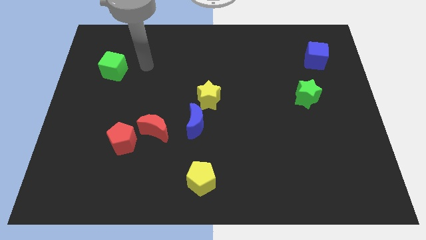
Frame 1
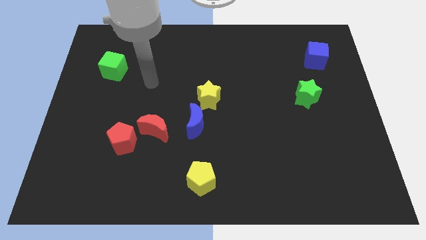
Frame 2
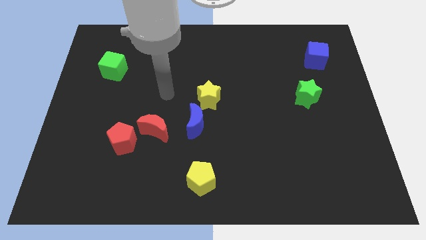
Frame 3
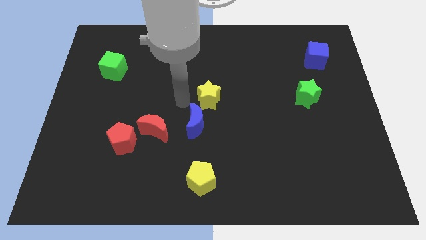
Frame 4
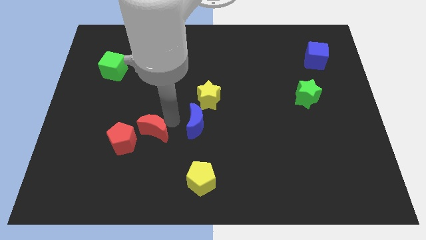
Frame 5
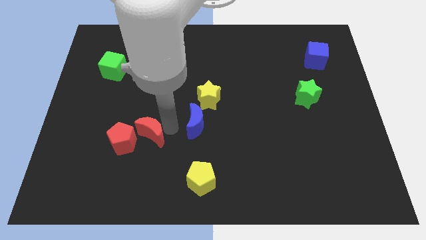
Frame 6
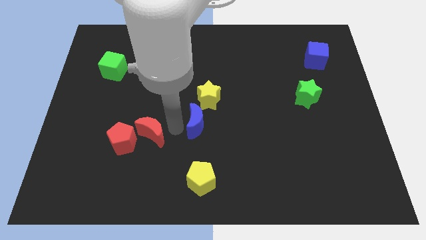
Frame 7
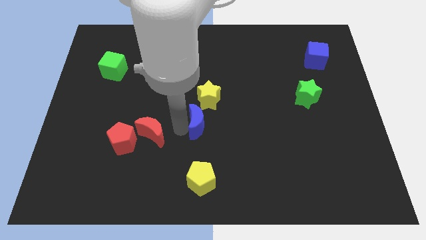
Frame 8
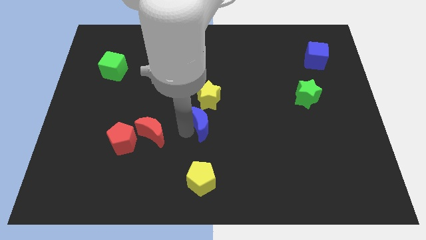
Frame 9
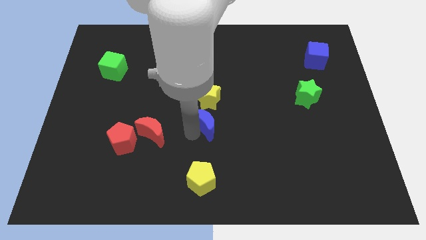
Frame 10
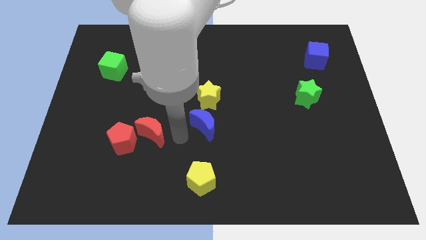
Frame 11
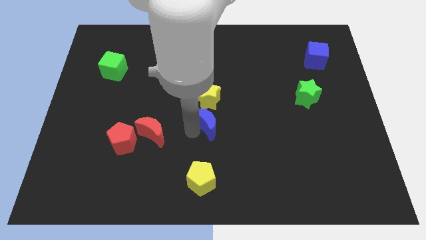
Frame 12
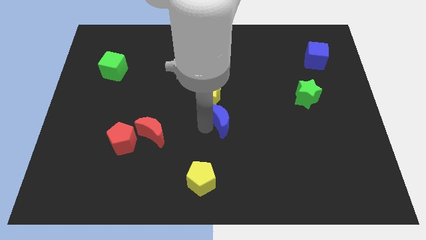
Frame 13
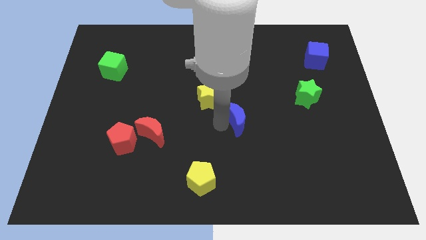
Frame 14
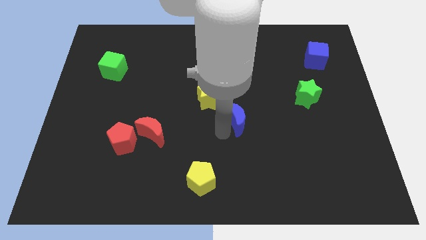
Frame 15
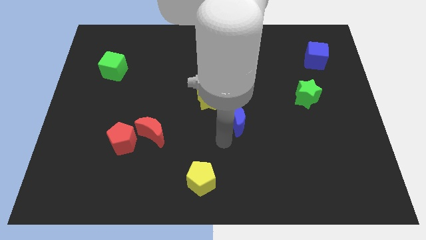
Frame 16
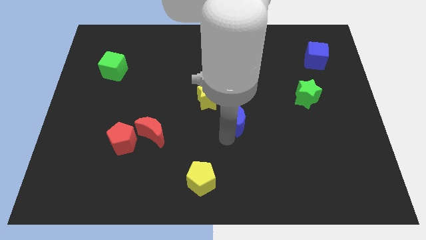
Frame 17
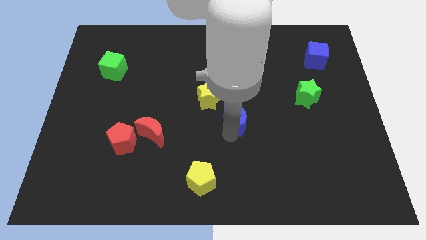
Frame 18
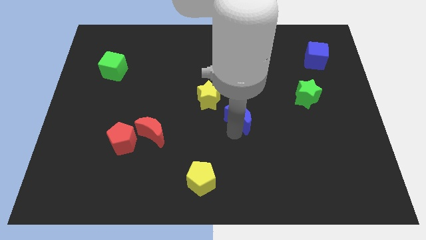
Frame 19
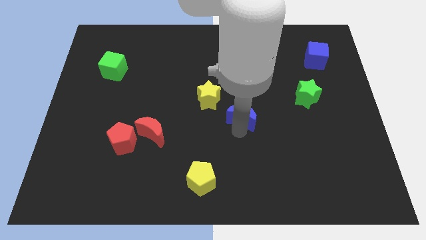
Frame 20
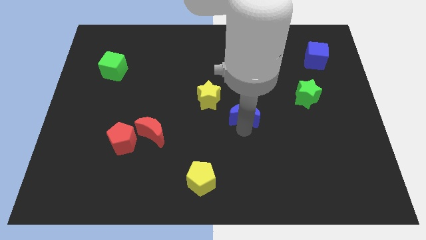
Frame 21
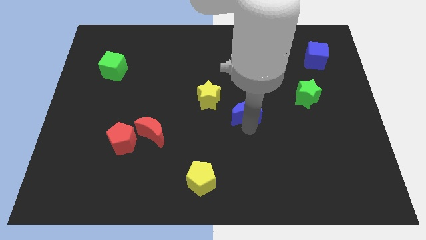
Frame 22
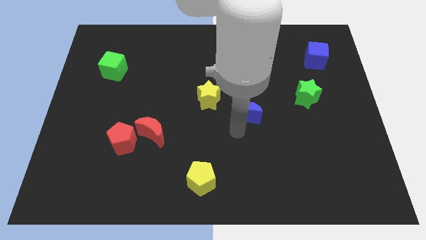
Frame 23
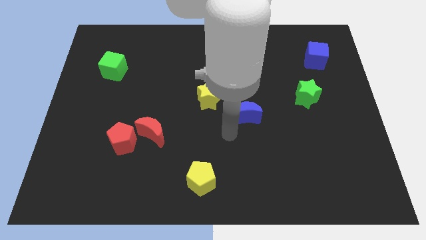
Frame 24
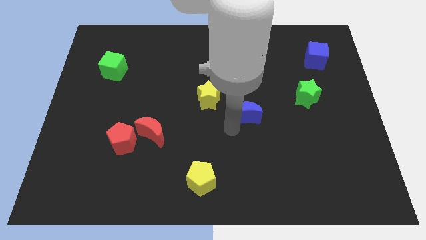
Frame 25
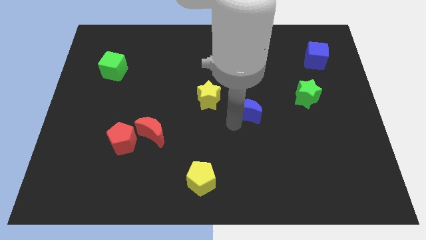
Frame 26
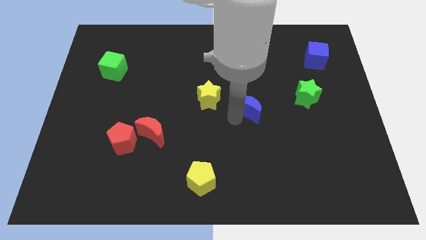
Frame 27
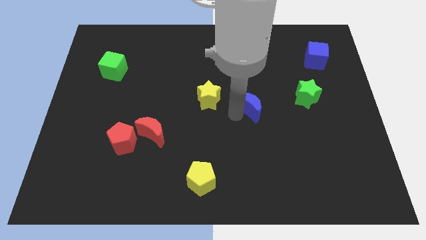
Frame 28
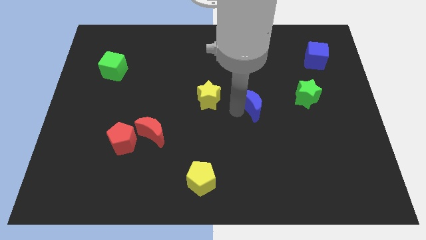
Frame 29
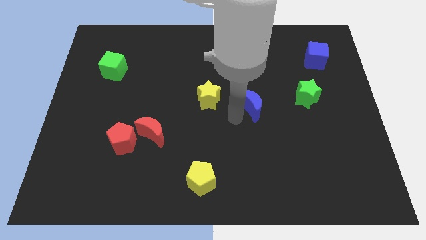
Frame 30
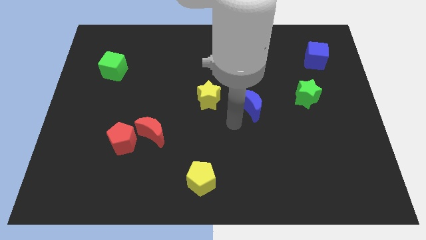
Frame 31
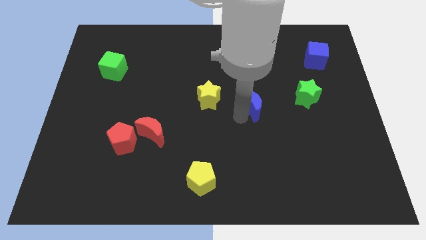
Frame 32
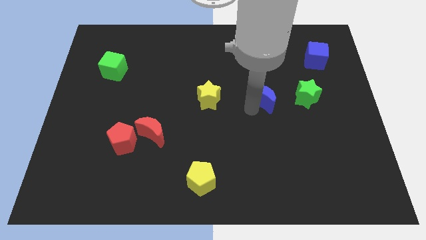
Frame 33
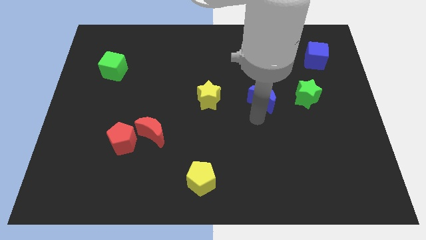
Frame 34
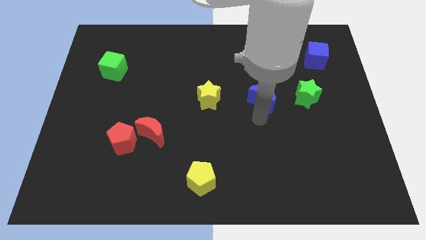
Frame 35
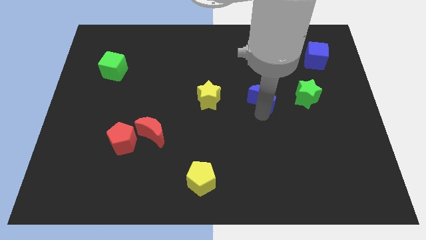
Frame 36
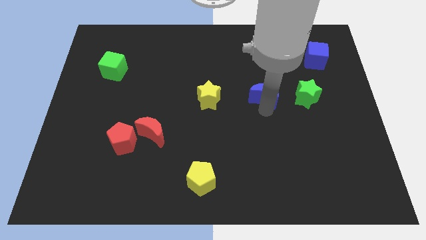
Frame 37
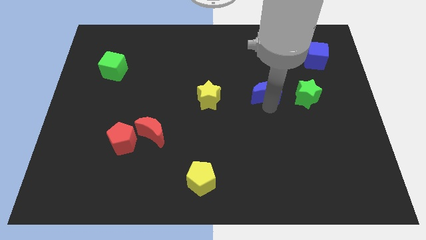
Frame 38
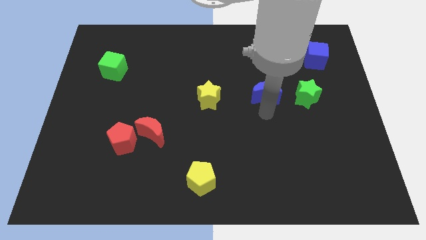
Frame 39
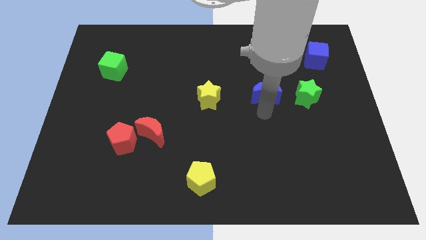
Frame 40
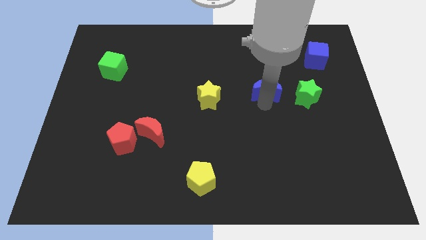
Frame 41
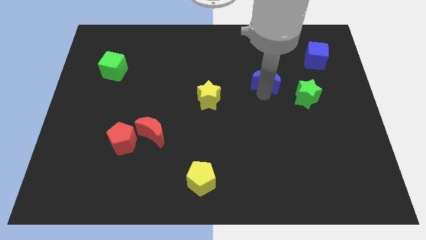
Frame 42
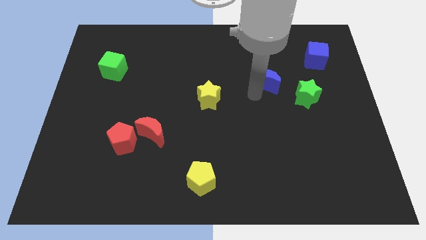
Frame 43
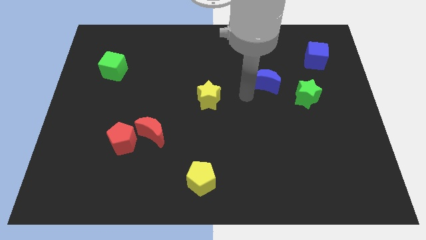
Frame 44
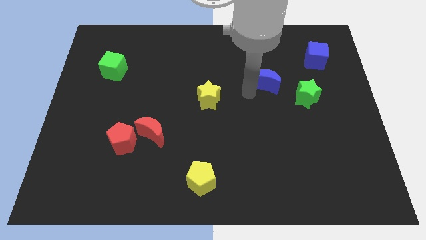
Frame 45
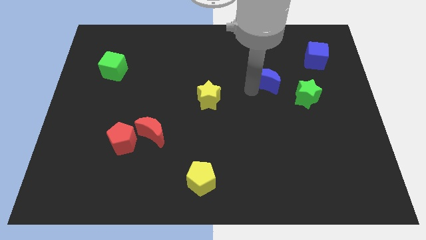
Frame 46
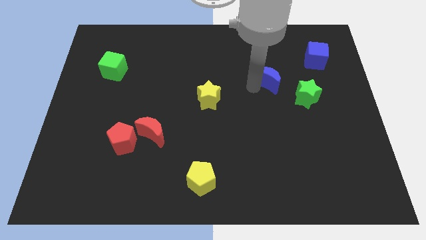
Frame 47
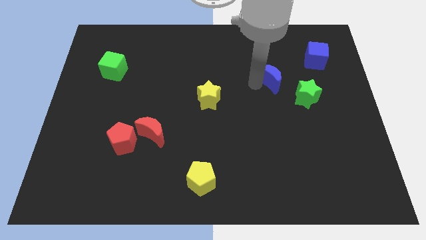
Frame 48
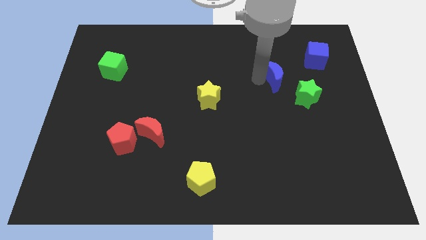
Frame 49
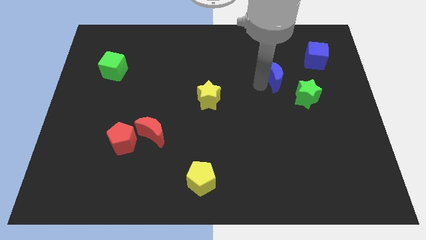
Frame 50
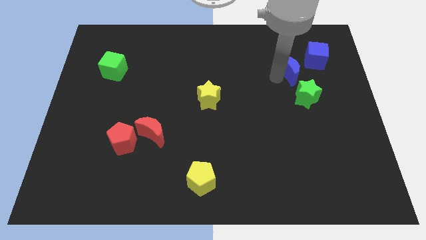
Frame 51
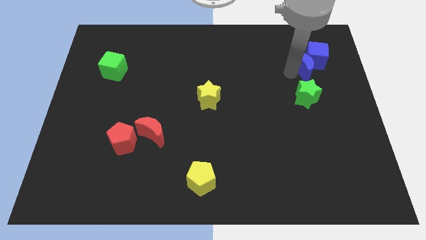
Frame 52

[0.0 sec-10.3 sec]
slide the blue moon close to the blue cube

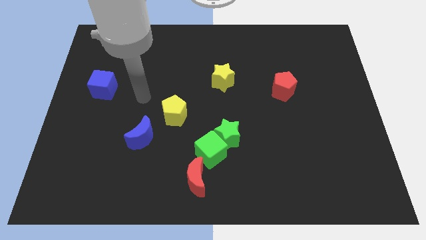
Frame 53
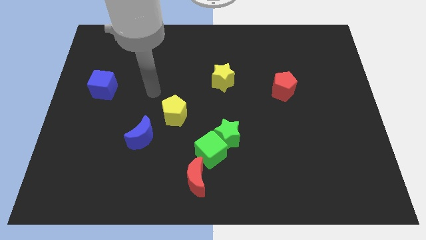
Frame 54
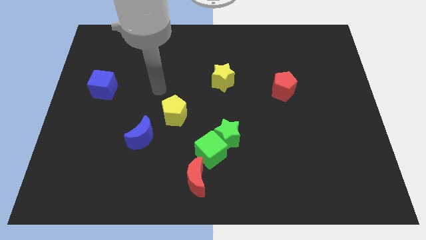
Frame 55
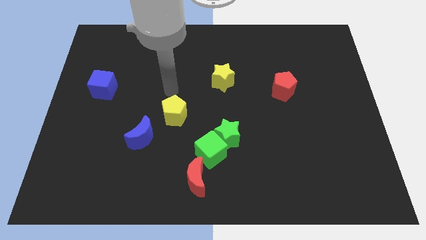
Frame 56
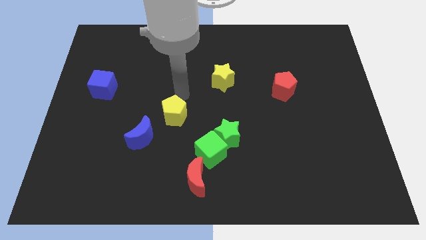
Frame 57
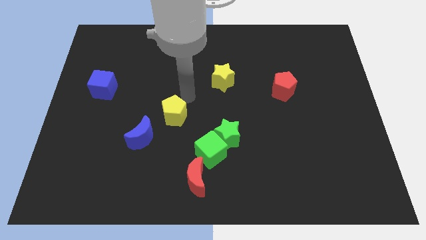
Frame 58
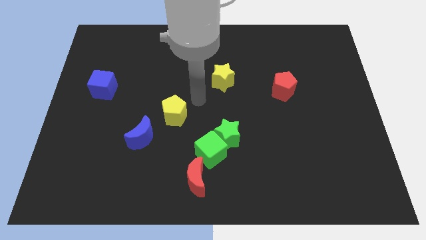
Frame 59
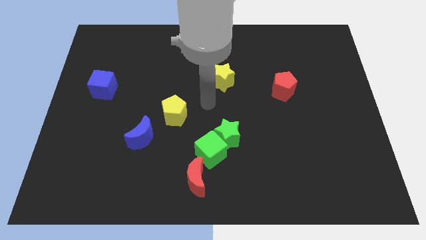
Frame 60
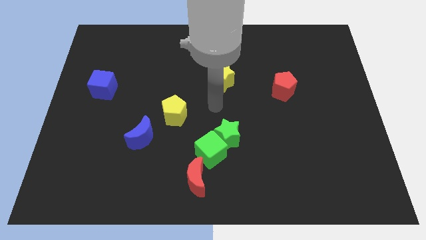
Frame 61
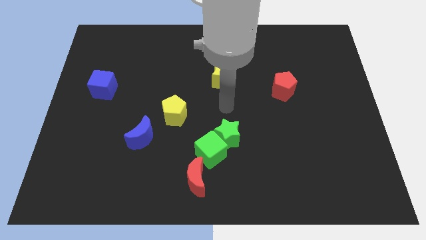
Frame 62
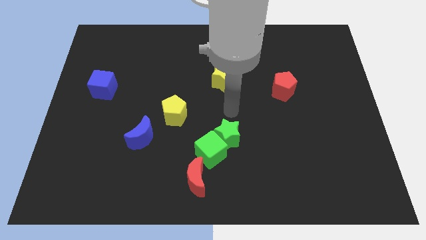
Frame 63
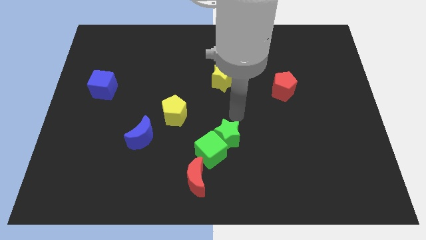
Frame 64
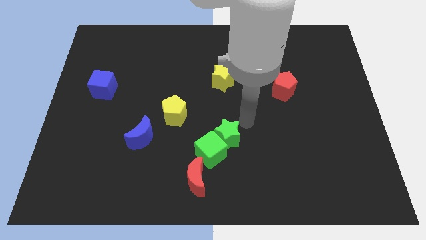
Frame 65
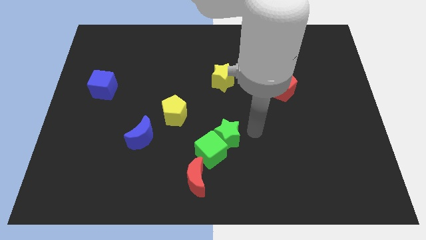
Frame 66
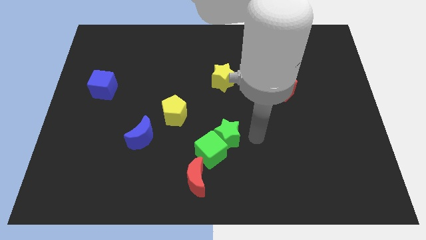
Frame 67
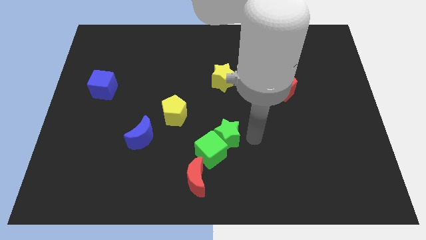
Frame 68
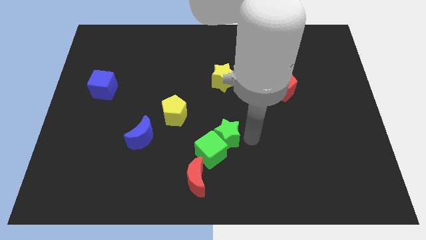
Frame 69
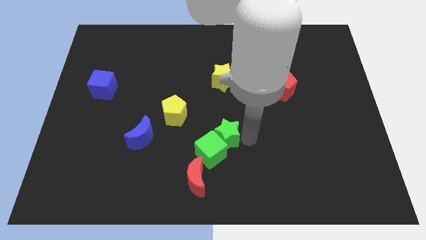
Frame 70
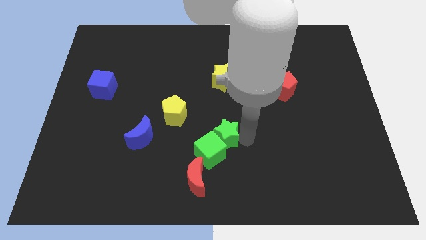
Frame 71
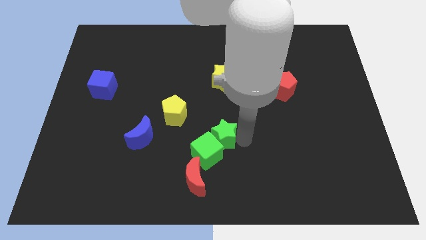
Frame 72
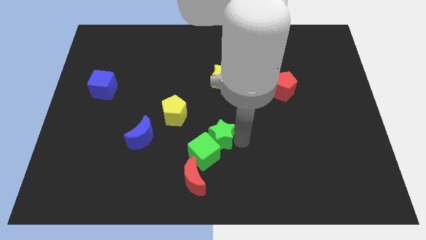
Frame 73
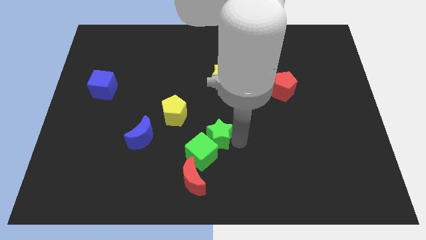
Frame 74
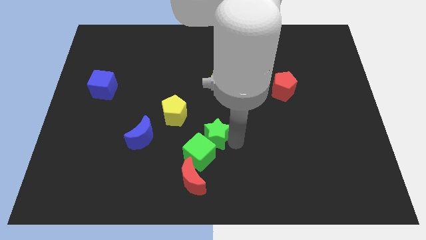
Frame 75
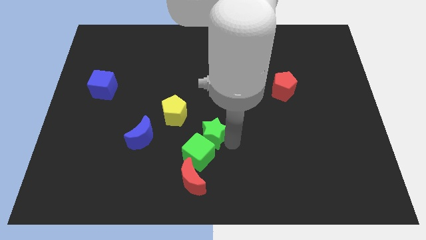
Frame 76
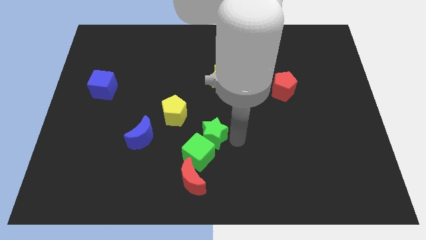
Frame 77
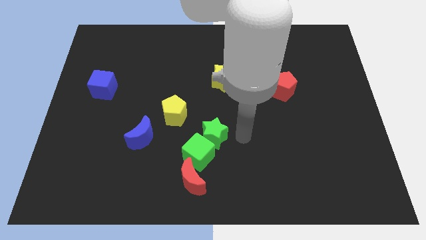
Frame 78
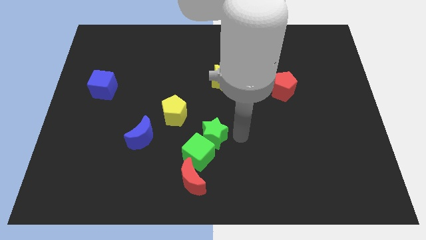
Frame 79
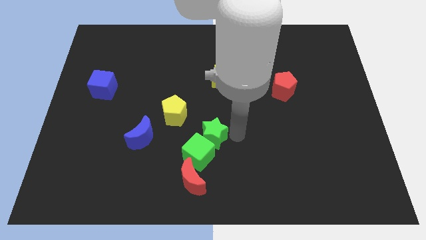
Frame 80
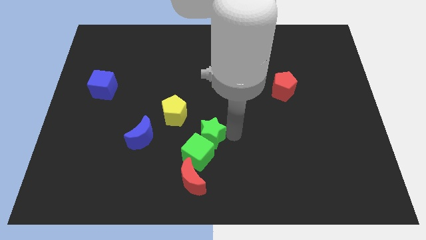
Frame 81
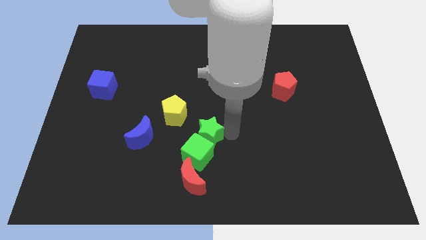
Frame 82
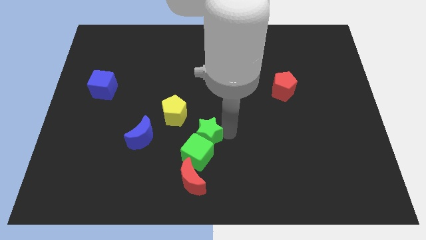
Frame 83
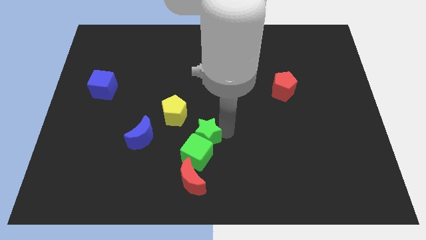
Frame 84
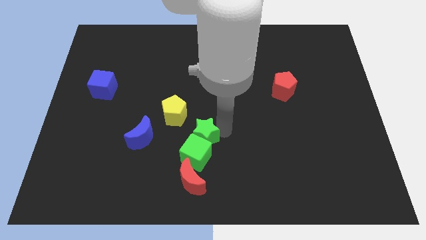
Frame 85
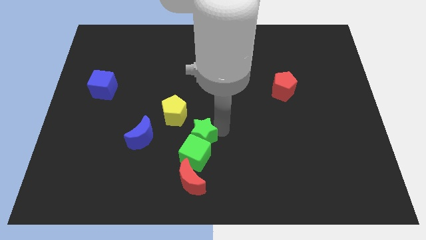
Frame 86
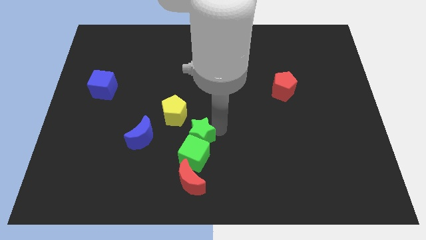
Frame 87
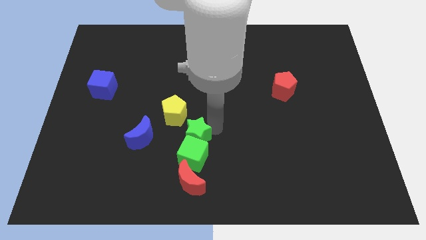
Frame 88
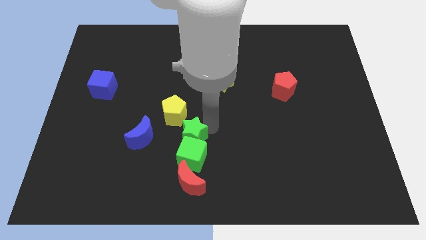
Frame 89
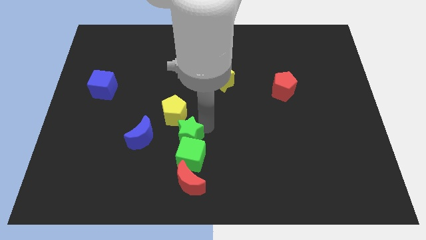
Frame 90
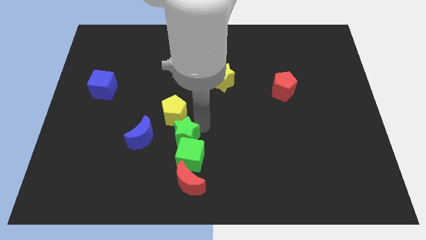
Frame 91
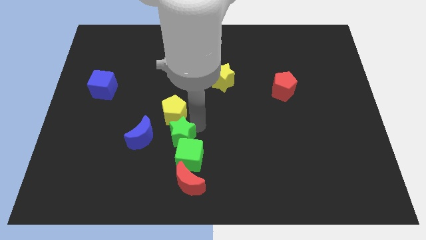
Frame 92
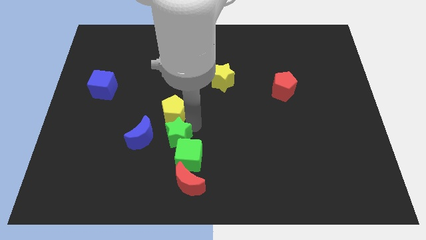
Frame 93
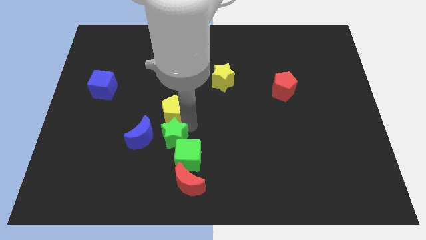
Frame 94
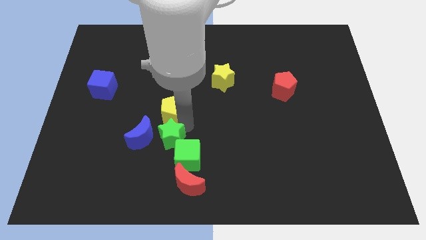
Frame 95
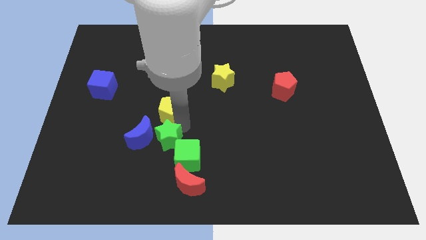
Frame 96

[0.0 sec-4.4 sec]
put the green star towards the blue moon
